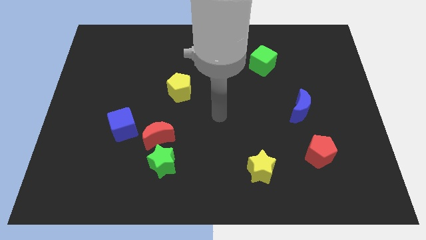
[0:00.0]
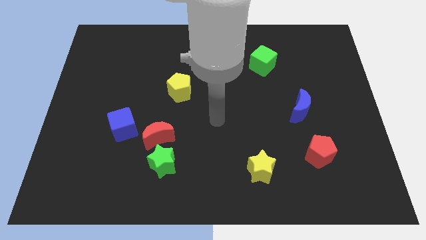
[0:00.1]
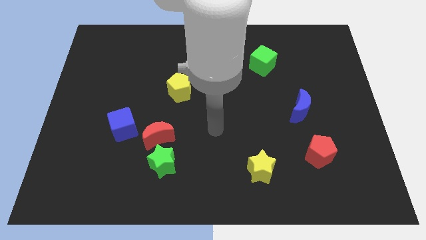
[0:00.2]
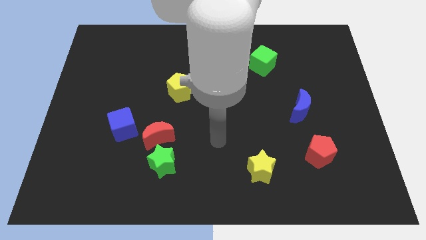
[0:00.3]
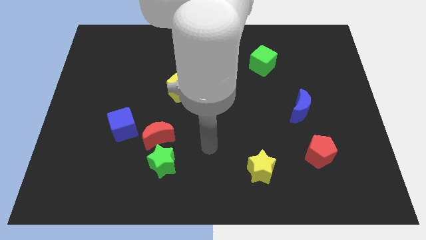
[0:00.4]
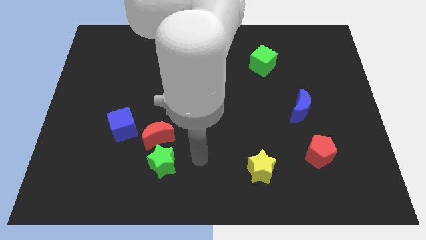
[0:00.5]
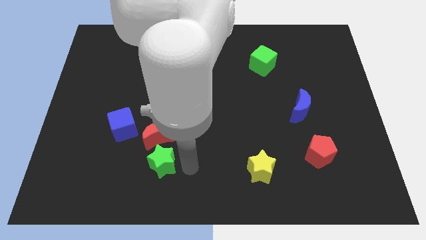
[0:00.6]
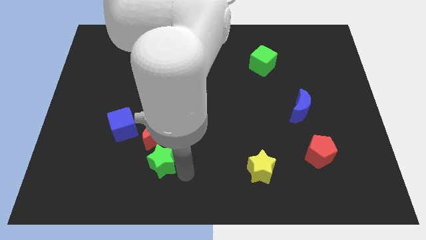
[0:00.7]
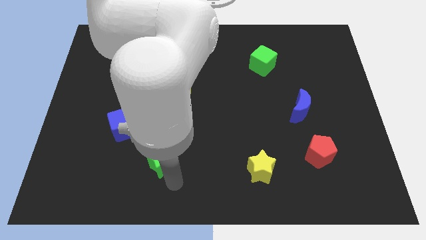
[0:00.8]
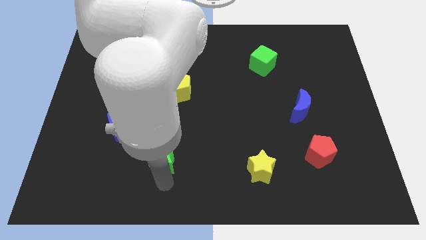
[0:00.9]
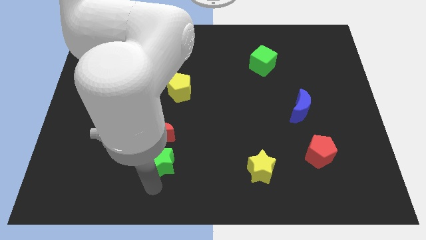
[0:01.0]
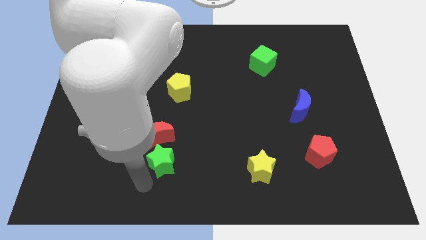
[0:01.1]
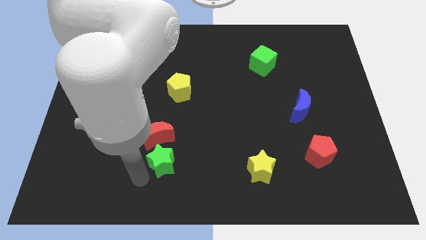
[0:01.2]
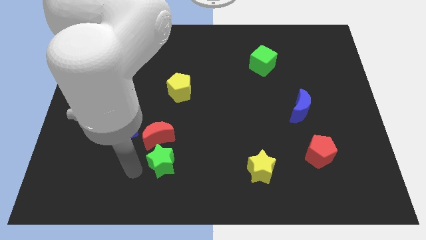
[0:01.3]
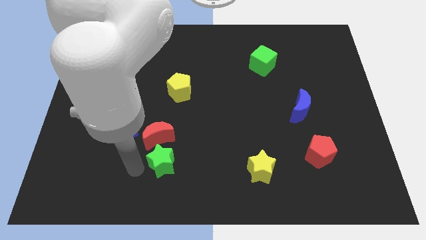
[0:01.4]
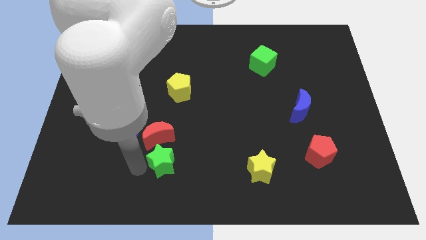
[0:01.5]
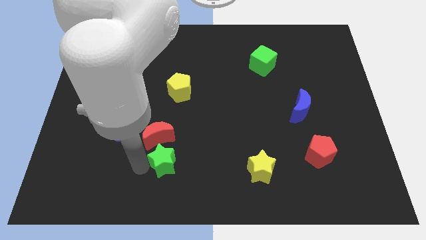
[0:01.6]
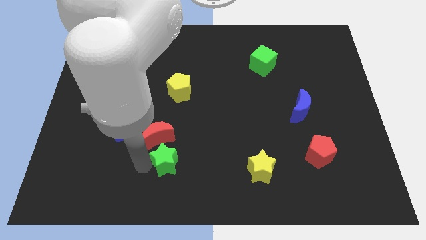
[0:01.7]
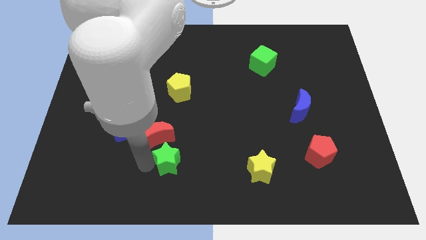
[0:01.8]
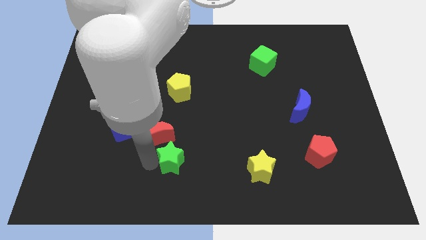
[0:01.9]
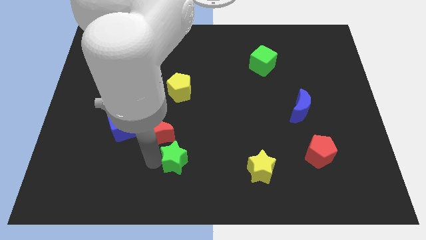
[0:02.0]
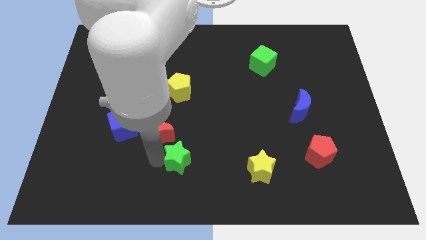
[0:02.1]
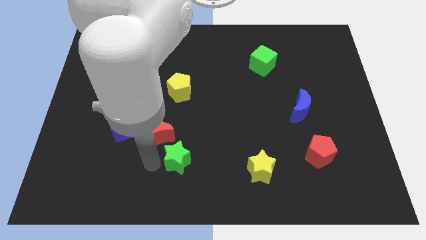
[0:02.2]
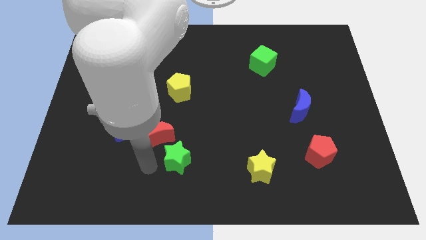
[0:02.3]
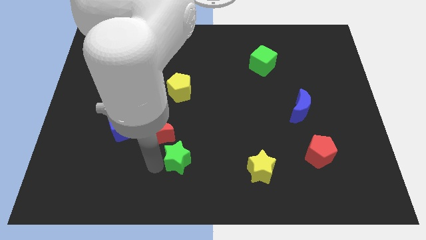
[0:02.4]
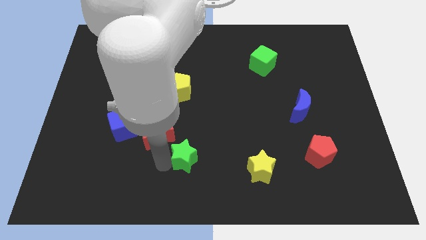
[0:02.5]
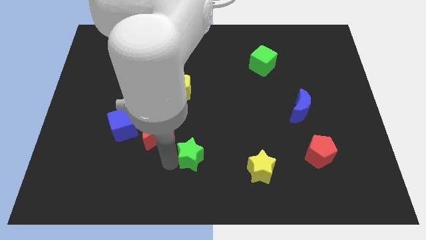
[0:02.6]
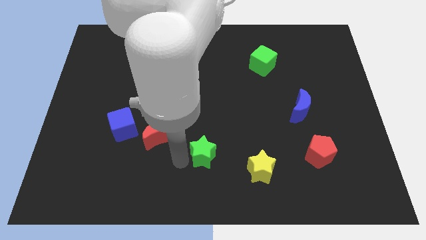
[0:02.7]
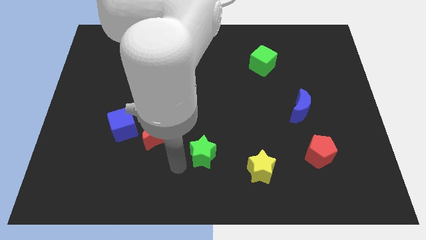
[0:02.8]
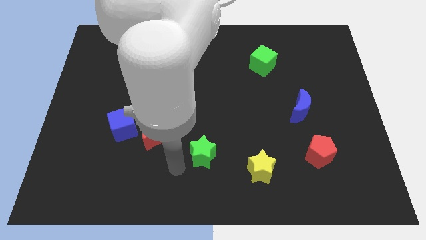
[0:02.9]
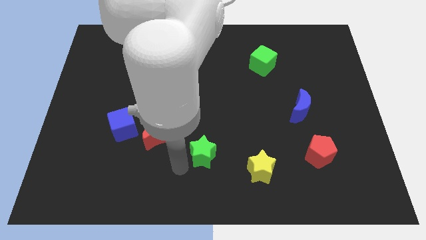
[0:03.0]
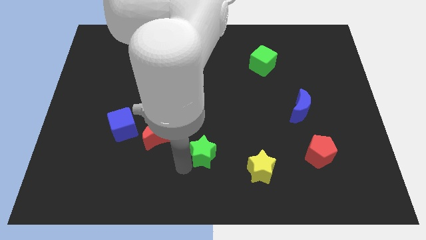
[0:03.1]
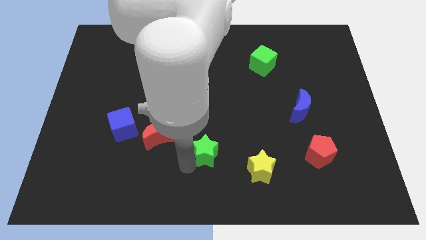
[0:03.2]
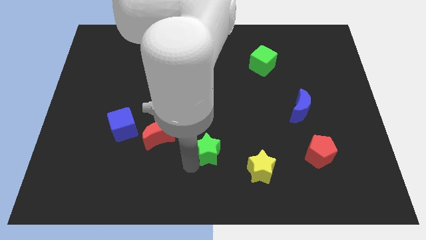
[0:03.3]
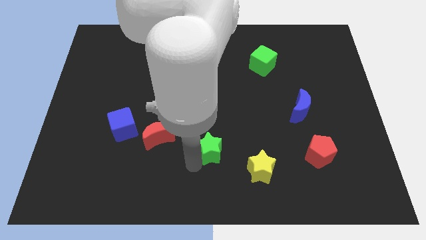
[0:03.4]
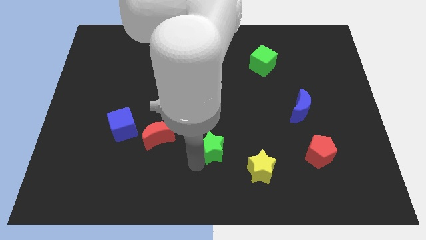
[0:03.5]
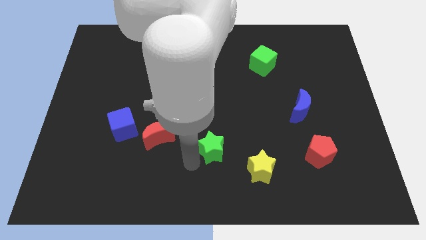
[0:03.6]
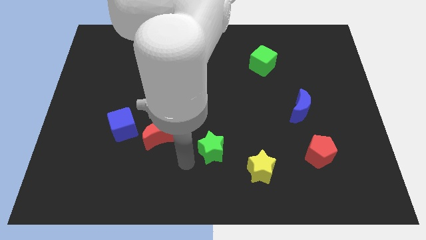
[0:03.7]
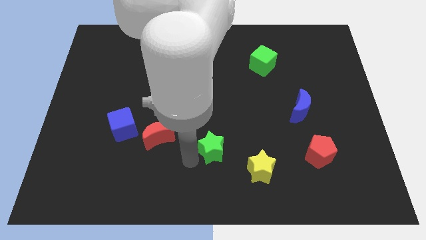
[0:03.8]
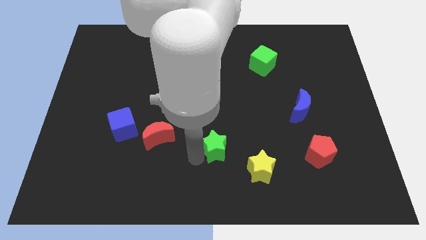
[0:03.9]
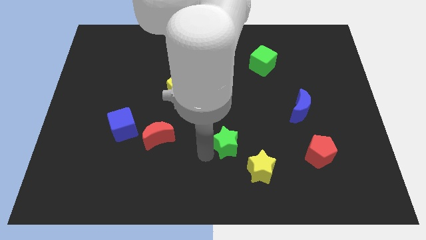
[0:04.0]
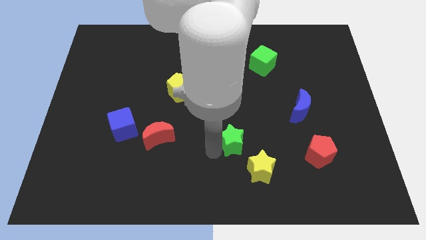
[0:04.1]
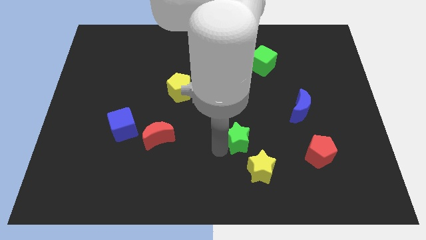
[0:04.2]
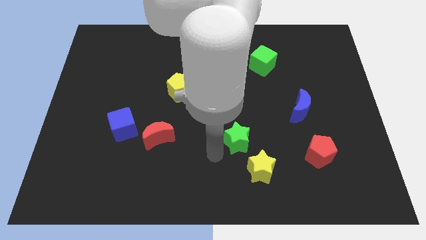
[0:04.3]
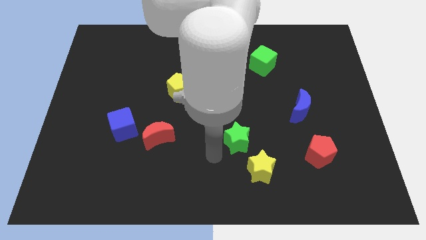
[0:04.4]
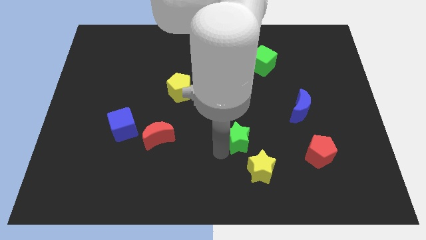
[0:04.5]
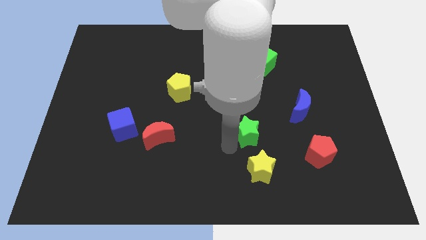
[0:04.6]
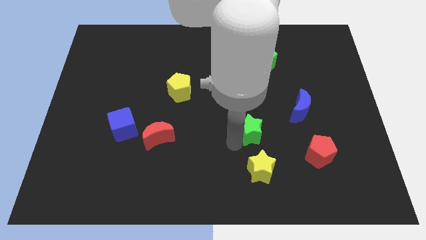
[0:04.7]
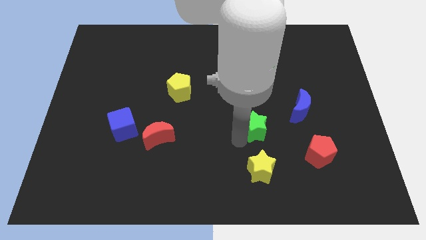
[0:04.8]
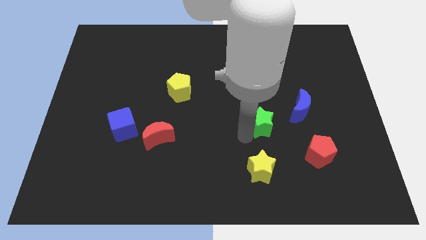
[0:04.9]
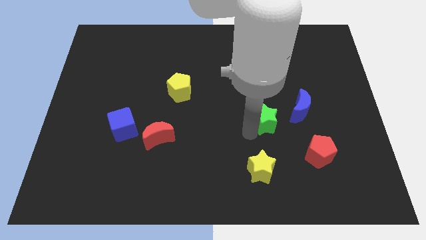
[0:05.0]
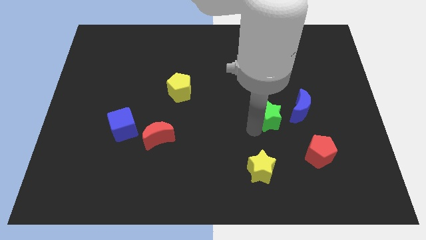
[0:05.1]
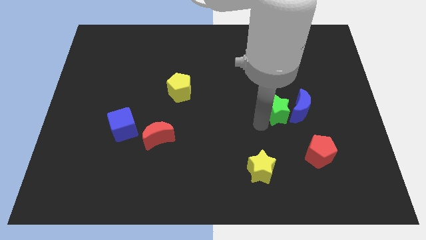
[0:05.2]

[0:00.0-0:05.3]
move the green star next to the blue moon

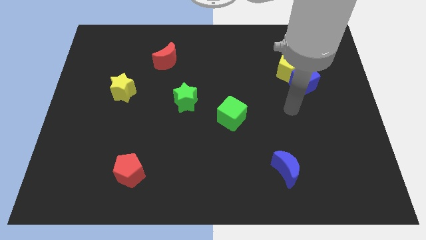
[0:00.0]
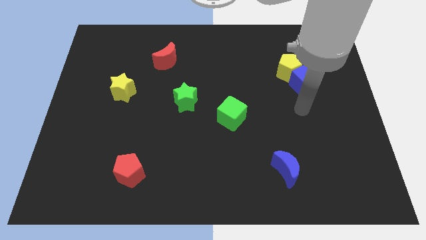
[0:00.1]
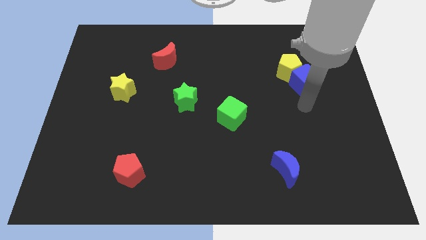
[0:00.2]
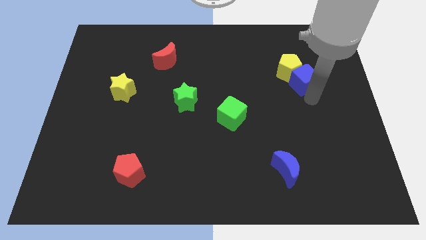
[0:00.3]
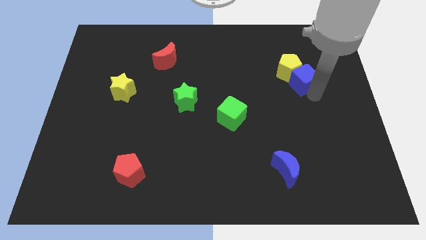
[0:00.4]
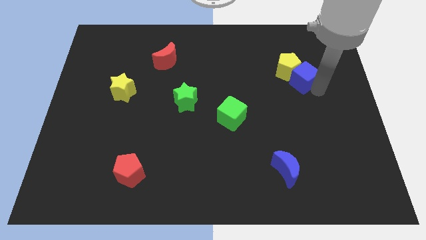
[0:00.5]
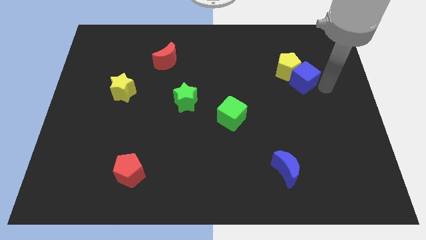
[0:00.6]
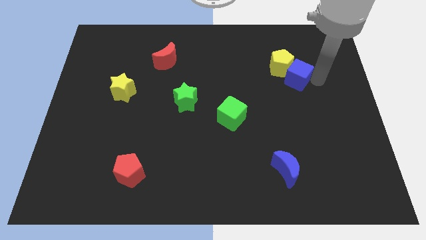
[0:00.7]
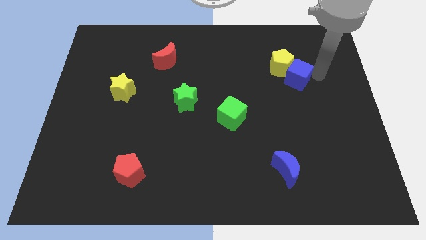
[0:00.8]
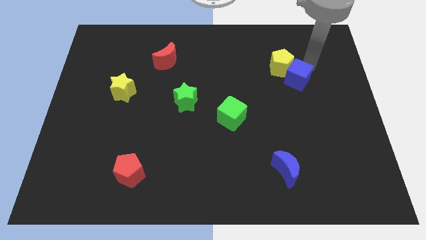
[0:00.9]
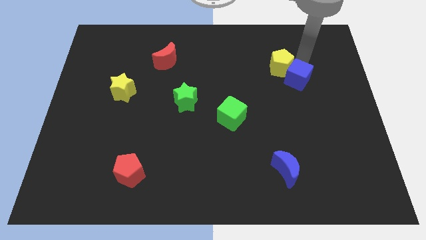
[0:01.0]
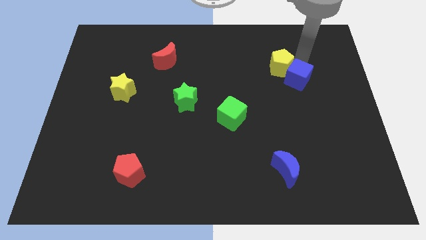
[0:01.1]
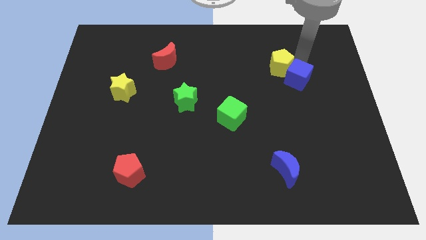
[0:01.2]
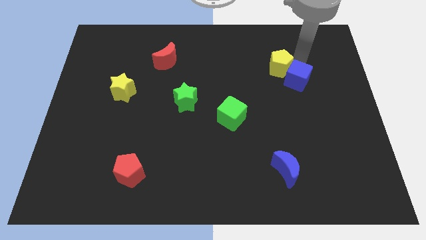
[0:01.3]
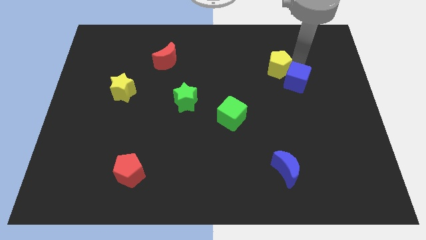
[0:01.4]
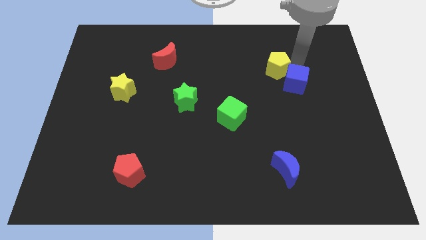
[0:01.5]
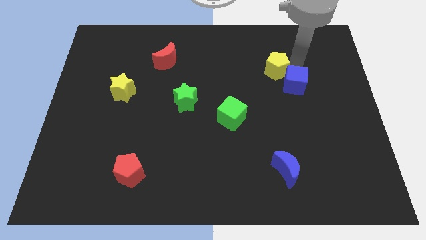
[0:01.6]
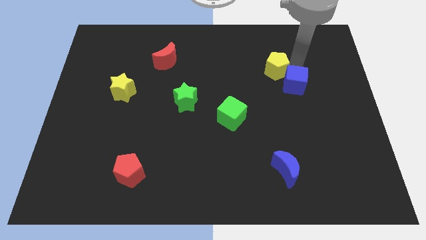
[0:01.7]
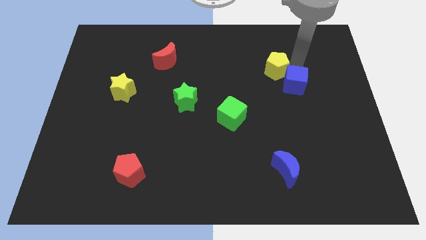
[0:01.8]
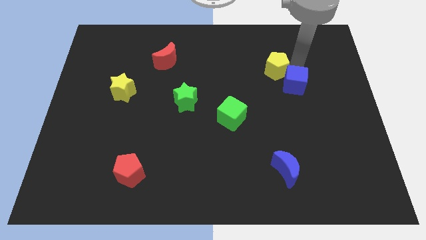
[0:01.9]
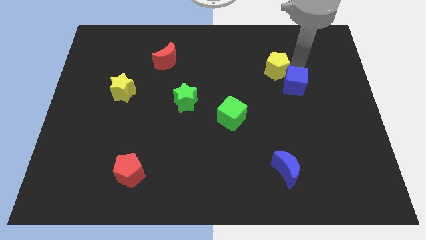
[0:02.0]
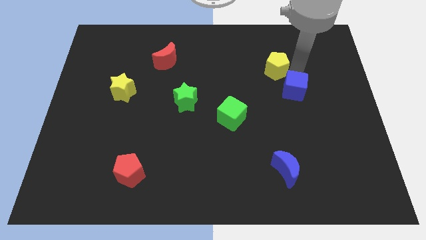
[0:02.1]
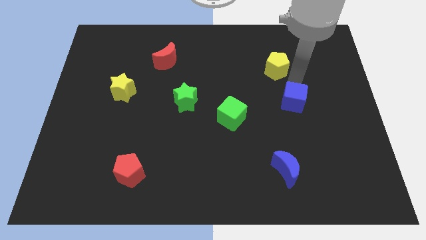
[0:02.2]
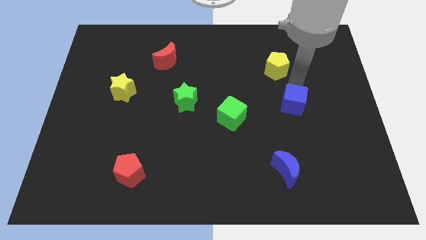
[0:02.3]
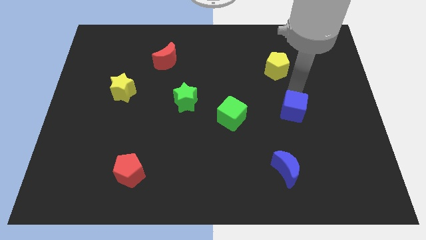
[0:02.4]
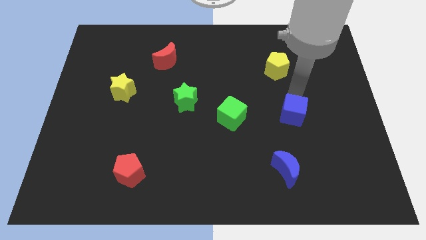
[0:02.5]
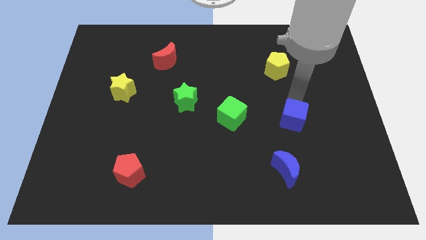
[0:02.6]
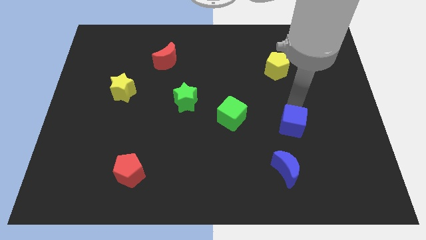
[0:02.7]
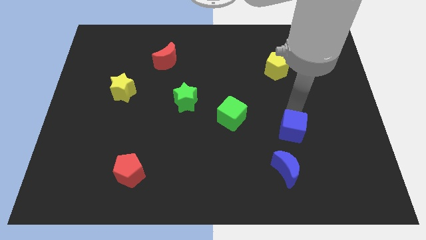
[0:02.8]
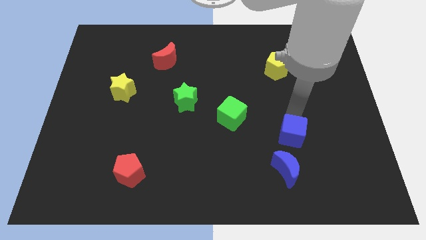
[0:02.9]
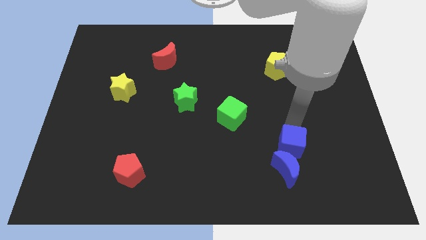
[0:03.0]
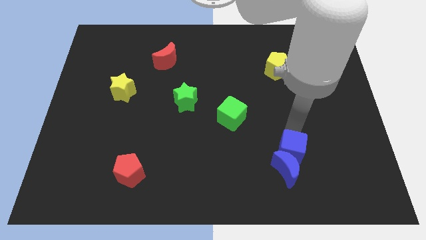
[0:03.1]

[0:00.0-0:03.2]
slide the blue cube next to the blue moon
